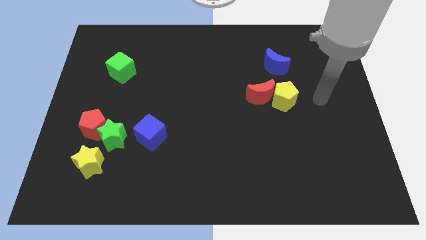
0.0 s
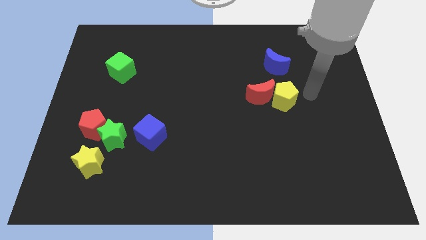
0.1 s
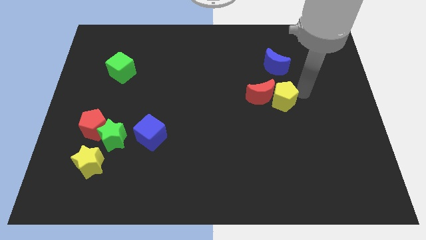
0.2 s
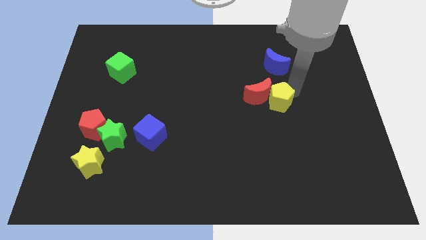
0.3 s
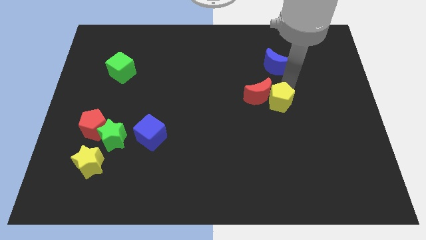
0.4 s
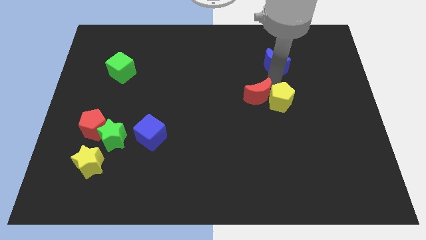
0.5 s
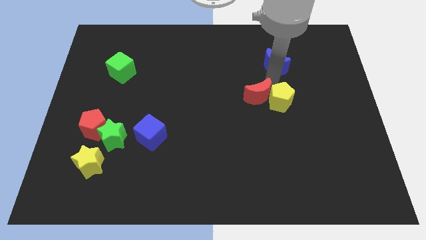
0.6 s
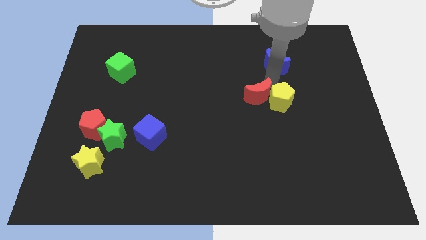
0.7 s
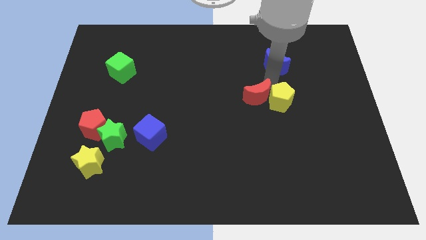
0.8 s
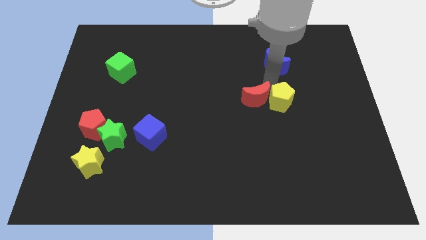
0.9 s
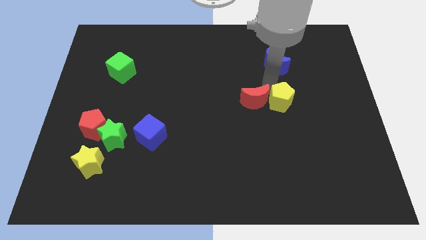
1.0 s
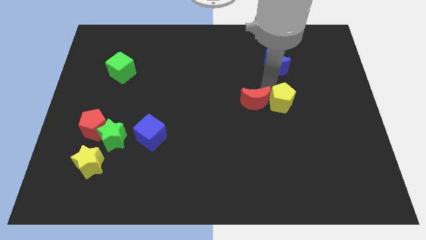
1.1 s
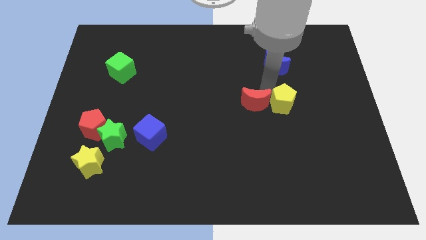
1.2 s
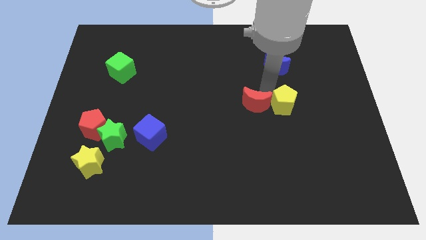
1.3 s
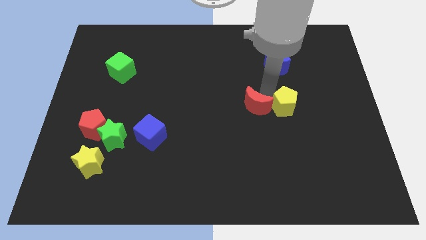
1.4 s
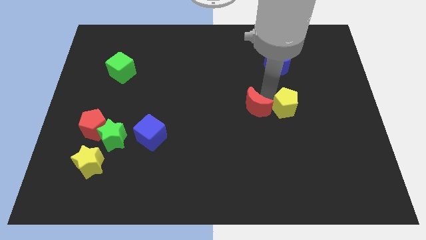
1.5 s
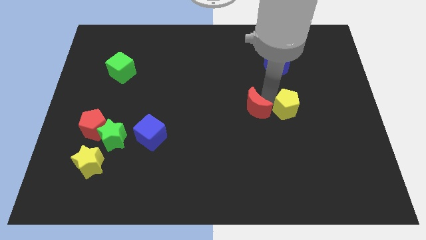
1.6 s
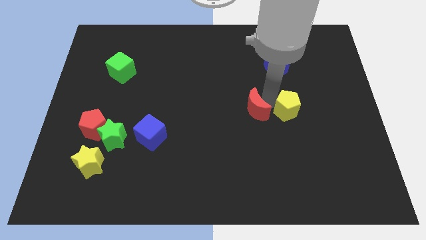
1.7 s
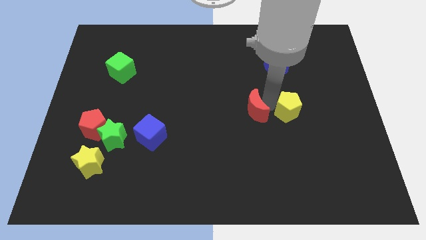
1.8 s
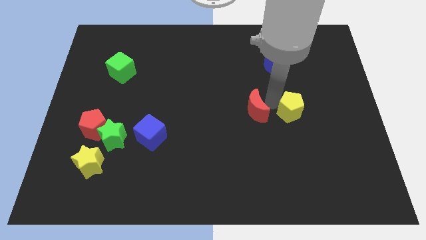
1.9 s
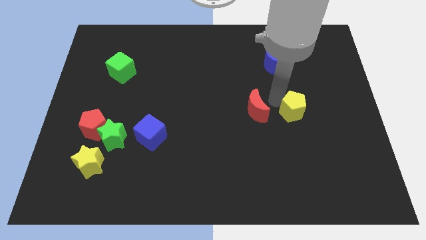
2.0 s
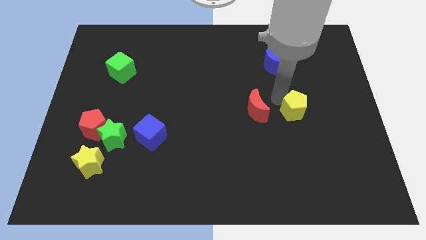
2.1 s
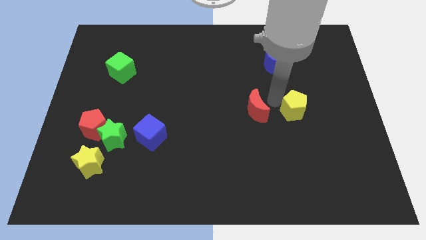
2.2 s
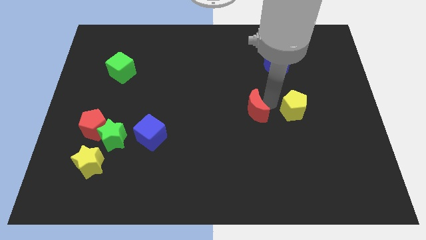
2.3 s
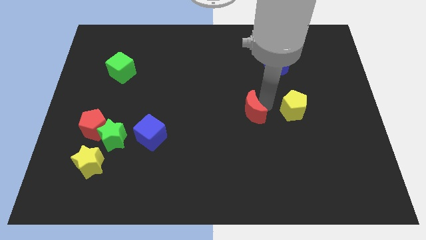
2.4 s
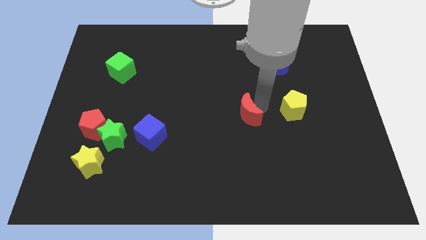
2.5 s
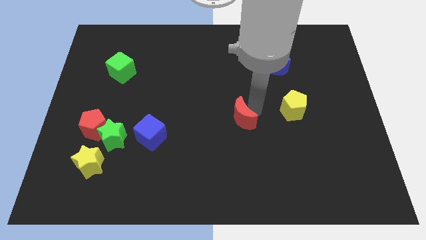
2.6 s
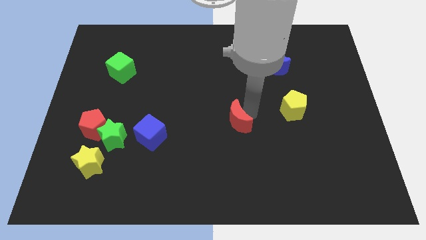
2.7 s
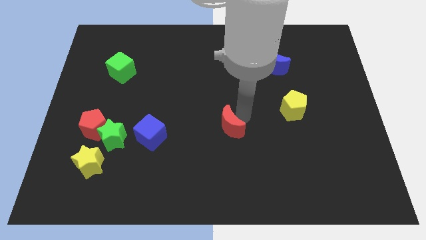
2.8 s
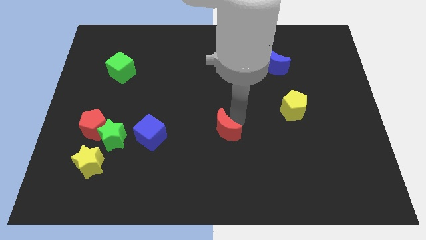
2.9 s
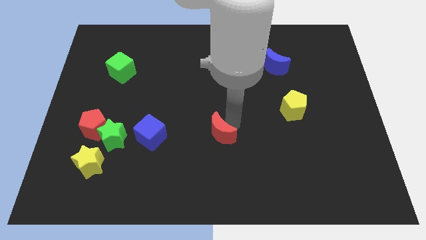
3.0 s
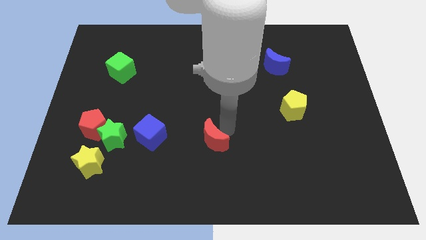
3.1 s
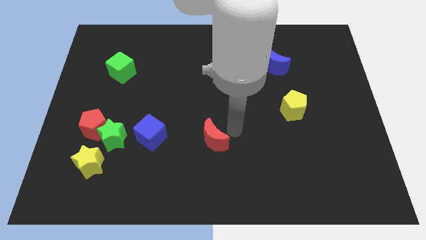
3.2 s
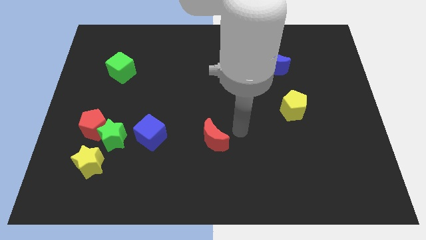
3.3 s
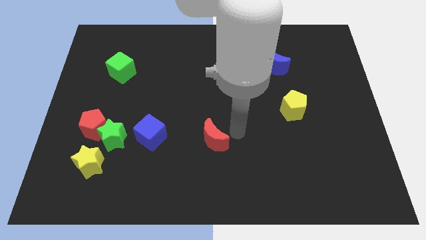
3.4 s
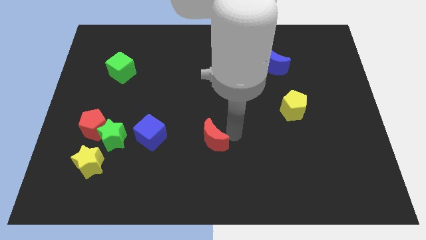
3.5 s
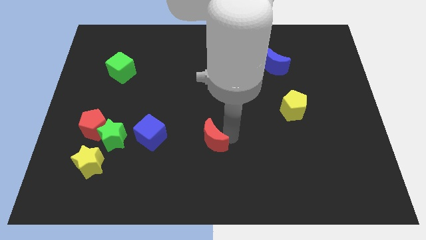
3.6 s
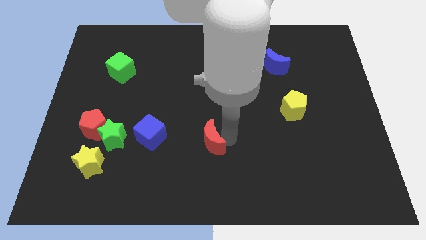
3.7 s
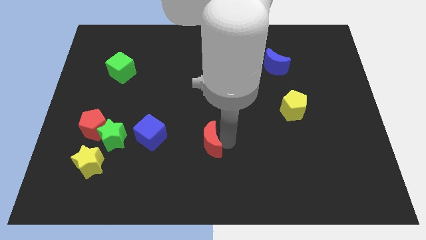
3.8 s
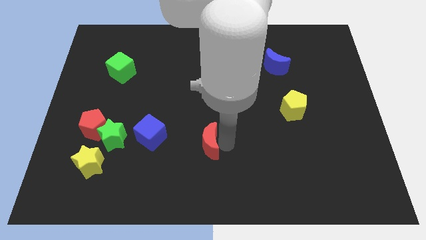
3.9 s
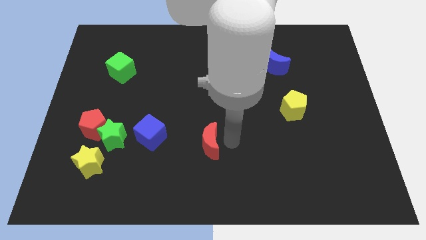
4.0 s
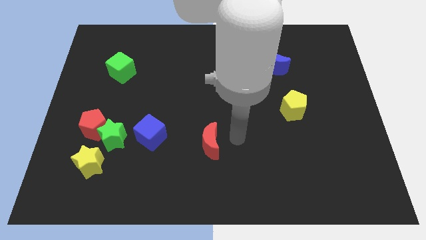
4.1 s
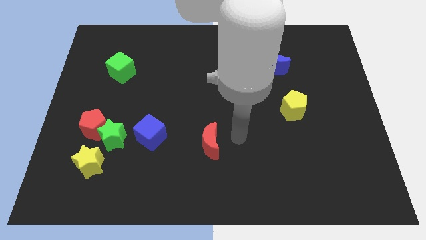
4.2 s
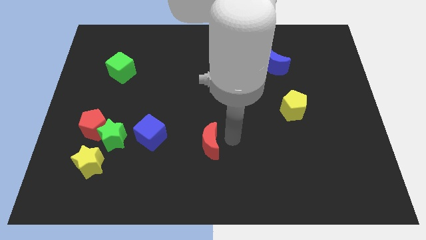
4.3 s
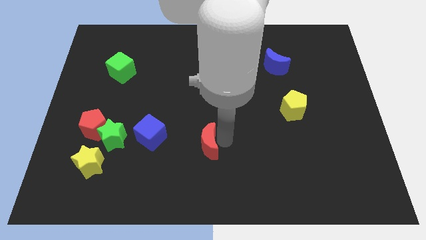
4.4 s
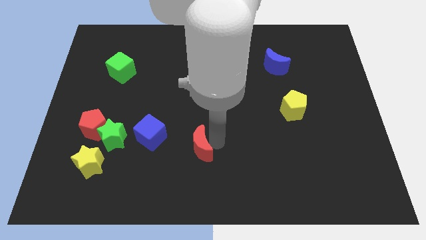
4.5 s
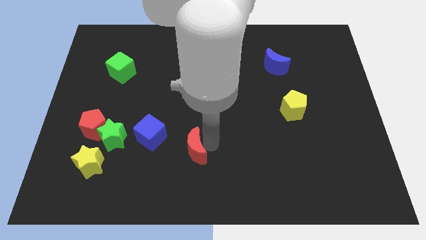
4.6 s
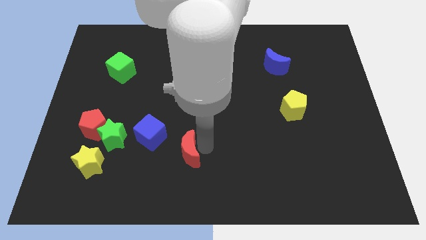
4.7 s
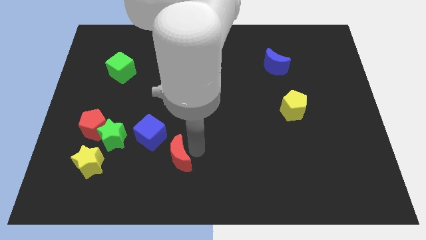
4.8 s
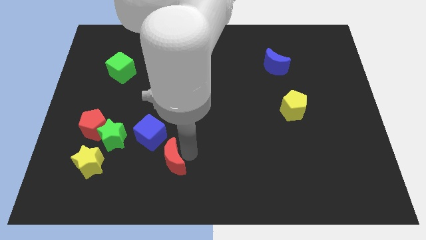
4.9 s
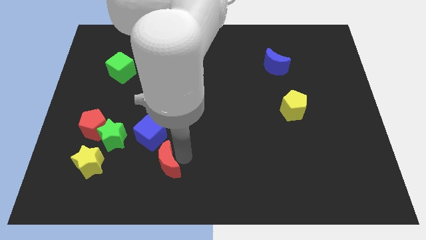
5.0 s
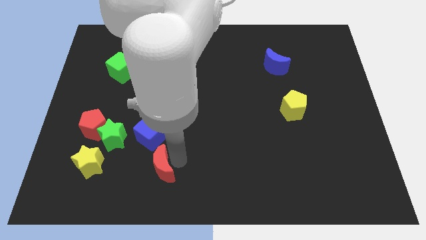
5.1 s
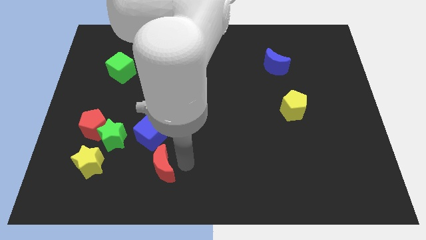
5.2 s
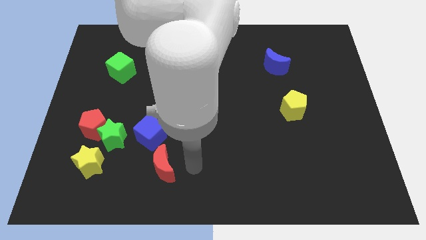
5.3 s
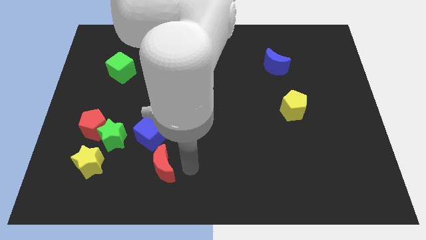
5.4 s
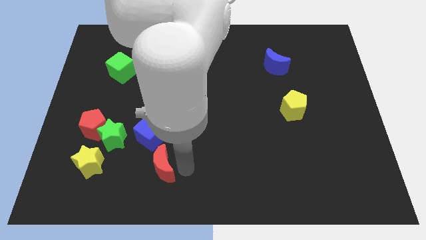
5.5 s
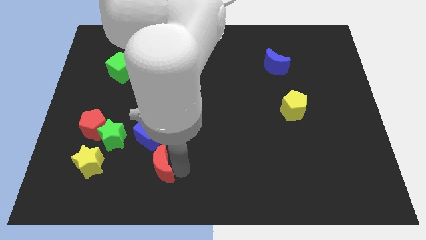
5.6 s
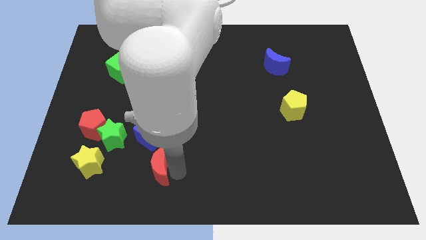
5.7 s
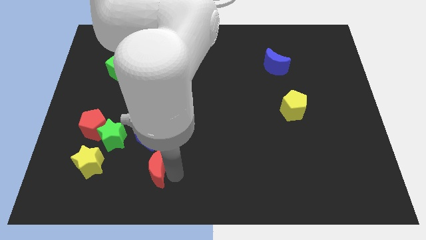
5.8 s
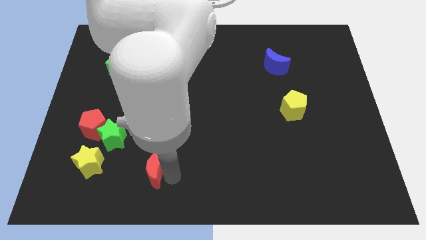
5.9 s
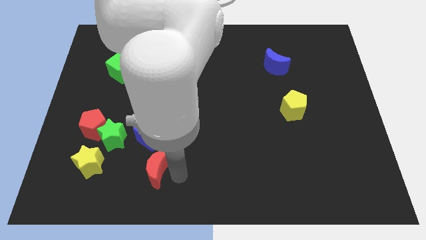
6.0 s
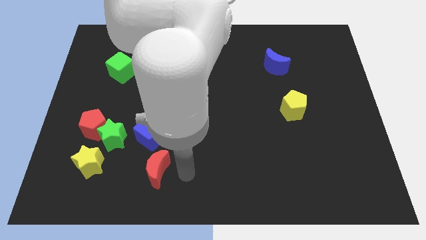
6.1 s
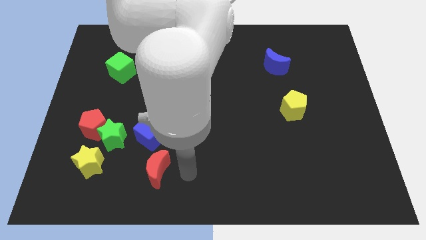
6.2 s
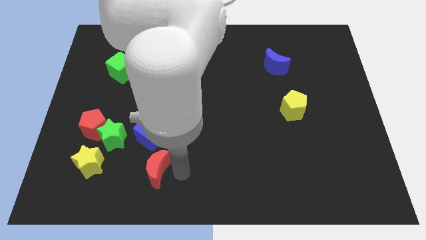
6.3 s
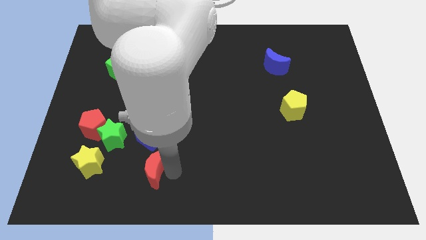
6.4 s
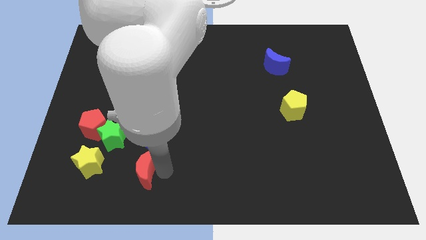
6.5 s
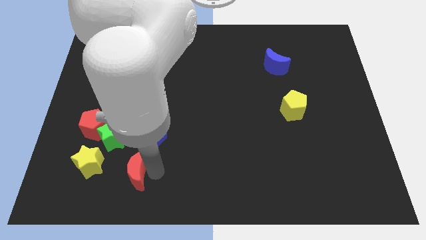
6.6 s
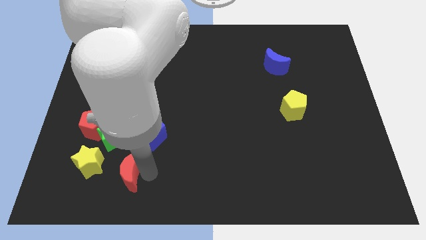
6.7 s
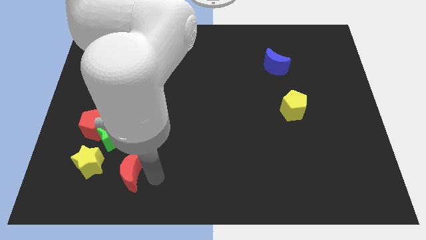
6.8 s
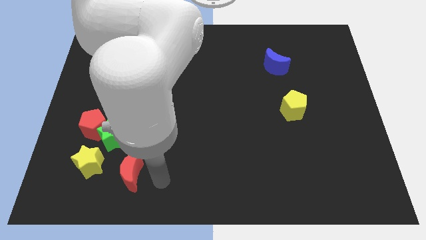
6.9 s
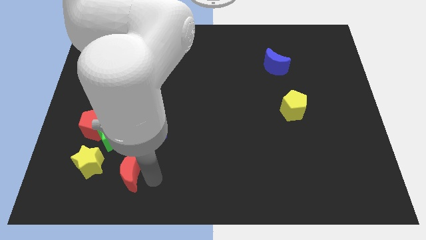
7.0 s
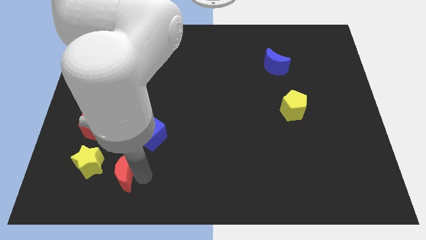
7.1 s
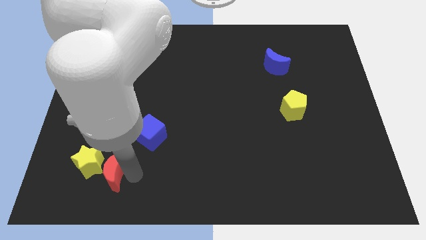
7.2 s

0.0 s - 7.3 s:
push the red moon to the yellow star
